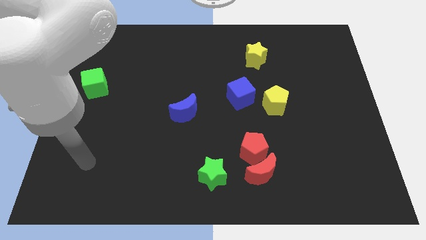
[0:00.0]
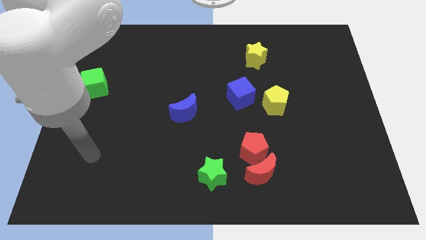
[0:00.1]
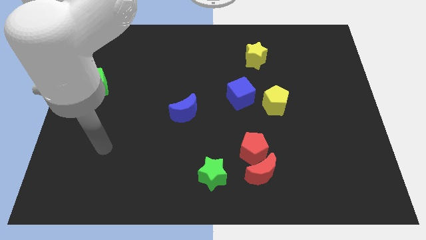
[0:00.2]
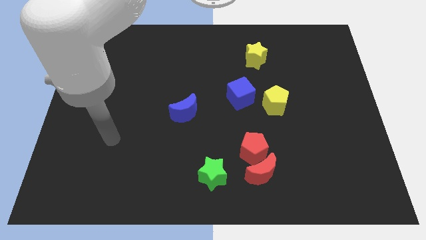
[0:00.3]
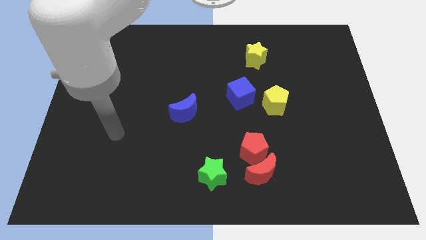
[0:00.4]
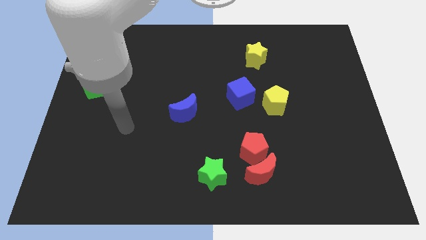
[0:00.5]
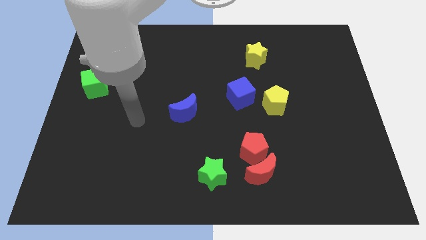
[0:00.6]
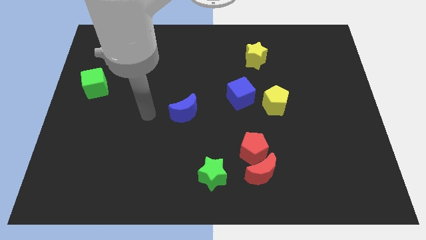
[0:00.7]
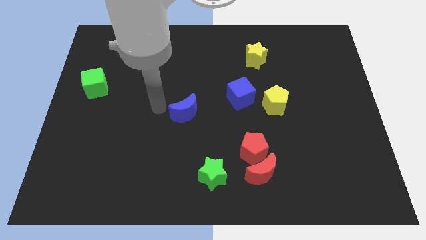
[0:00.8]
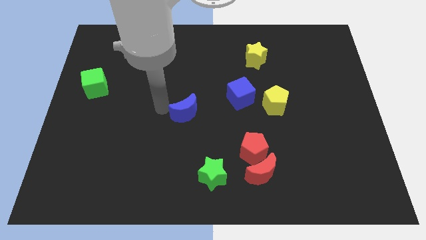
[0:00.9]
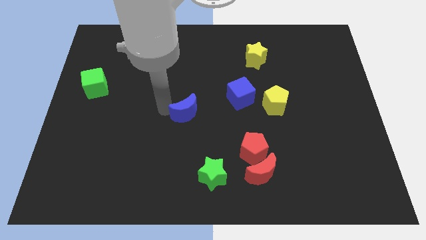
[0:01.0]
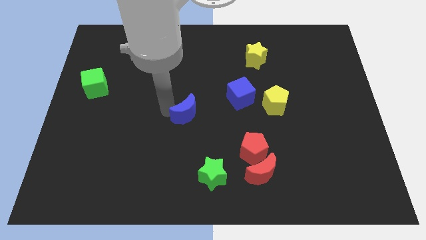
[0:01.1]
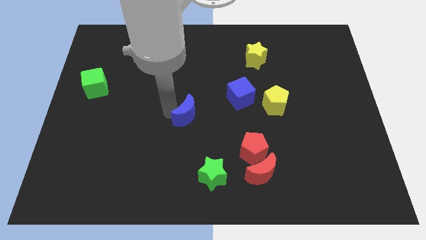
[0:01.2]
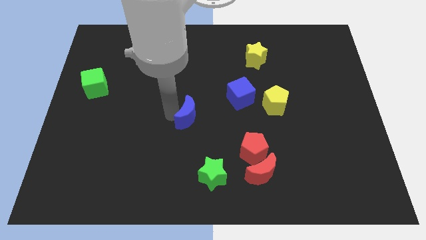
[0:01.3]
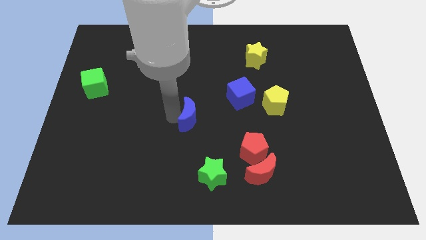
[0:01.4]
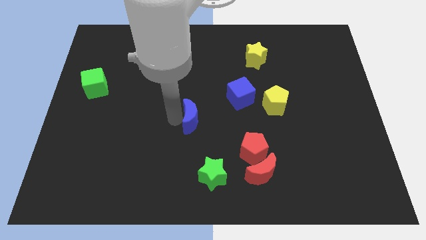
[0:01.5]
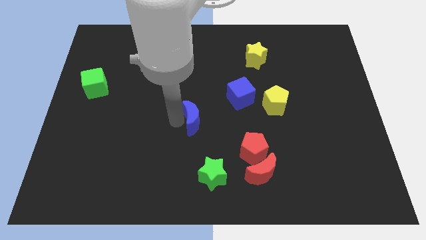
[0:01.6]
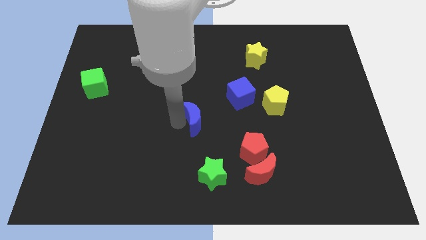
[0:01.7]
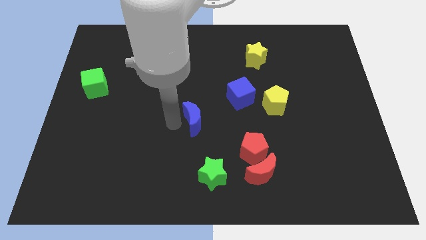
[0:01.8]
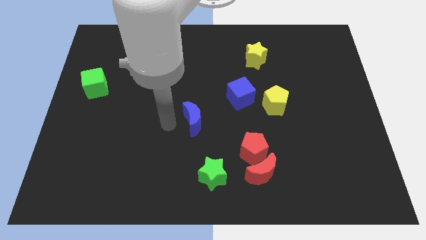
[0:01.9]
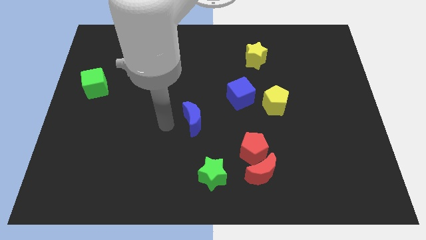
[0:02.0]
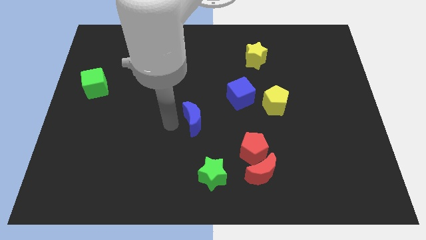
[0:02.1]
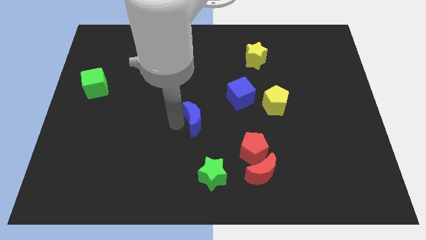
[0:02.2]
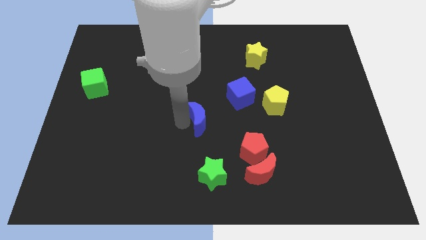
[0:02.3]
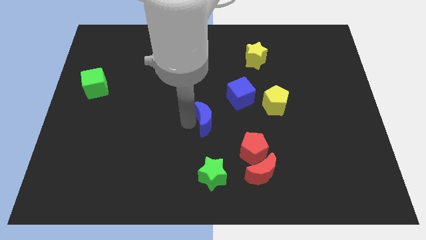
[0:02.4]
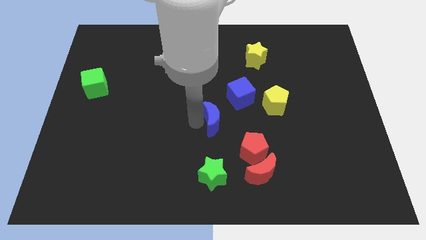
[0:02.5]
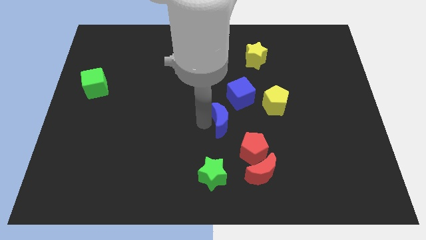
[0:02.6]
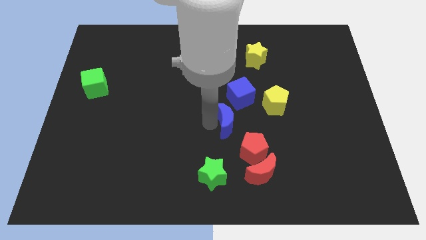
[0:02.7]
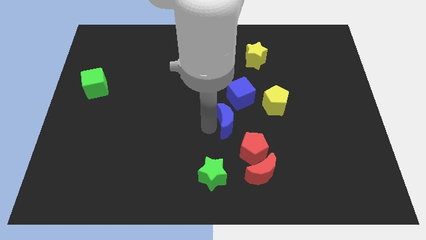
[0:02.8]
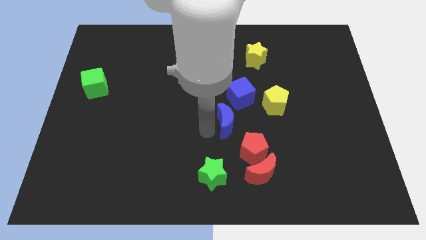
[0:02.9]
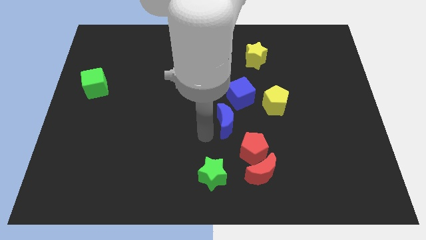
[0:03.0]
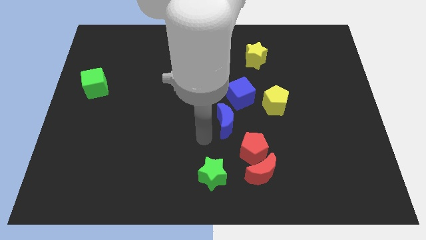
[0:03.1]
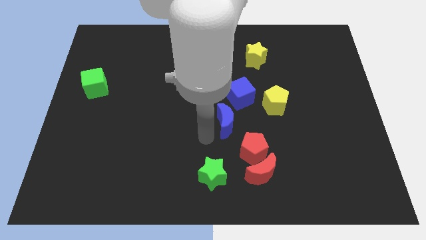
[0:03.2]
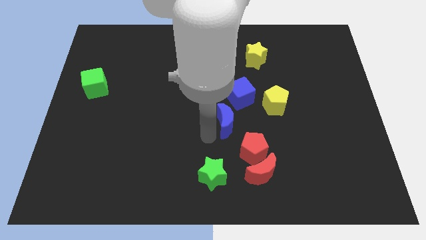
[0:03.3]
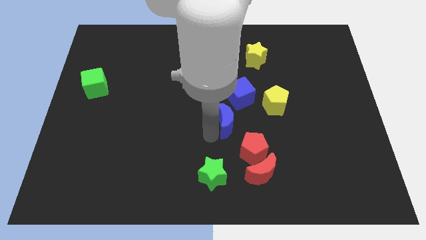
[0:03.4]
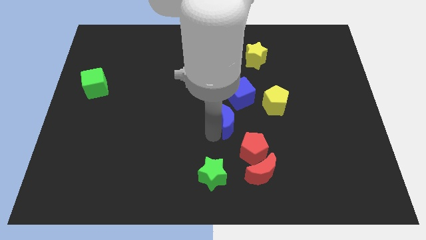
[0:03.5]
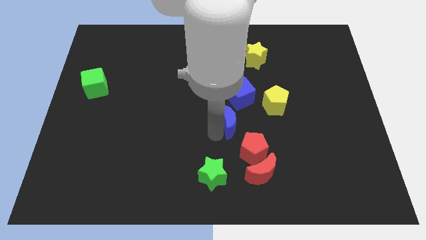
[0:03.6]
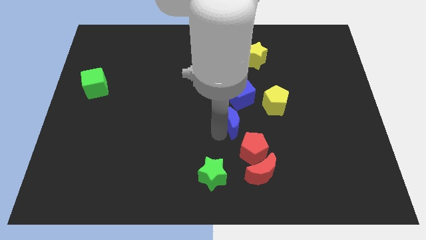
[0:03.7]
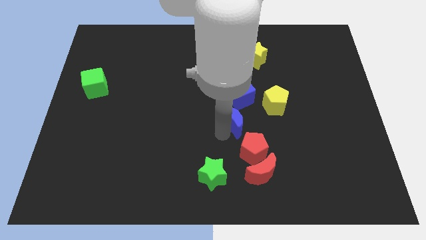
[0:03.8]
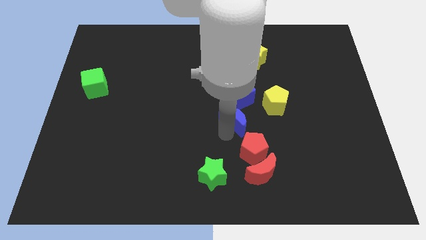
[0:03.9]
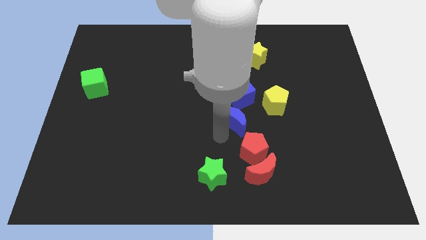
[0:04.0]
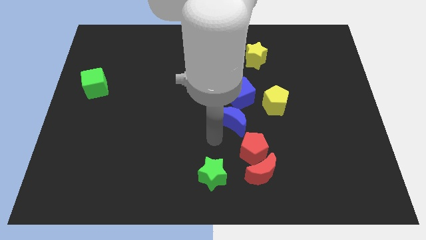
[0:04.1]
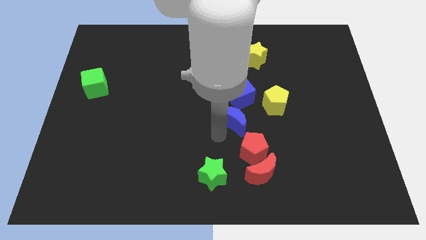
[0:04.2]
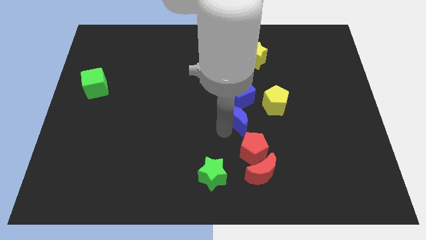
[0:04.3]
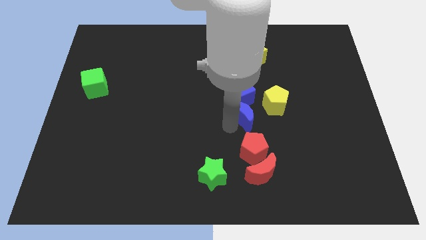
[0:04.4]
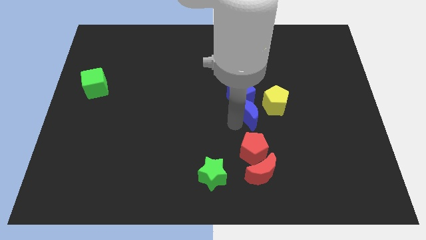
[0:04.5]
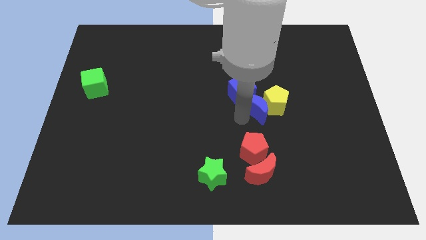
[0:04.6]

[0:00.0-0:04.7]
slide the blue moon to the yellow pentagon

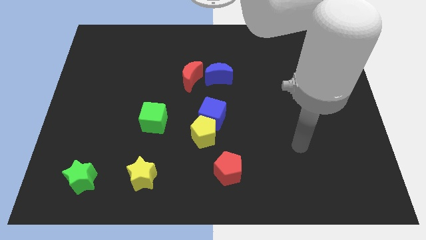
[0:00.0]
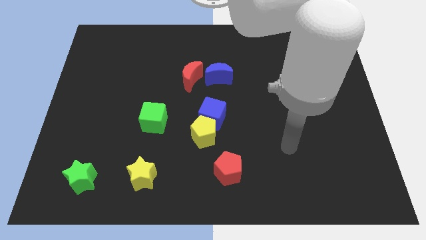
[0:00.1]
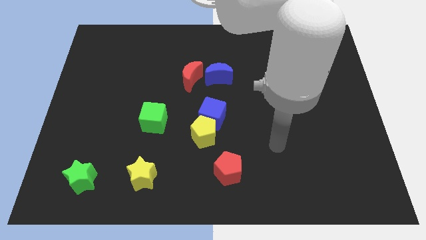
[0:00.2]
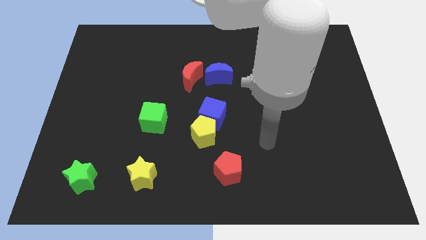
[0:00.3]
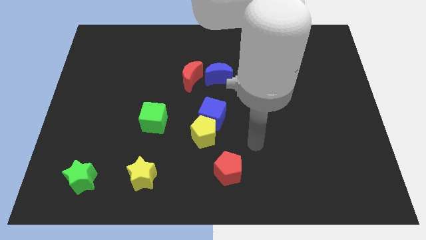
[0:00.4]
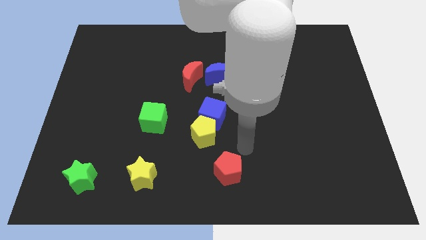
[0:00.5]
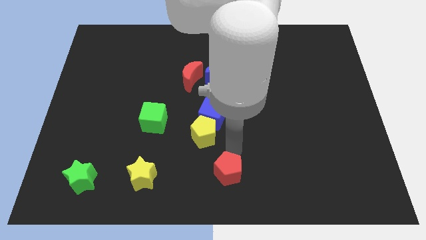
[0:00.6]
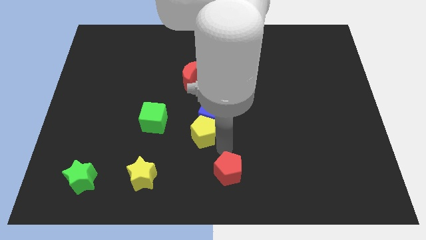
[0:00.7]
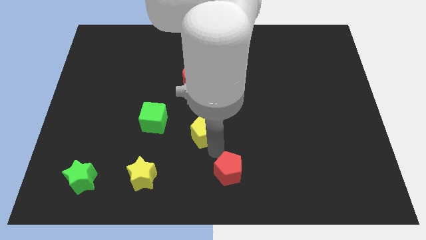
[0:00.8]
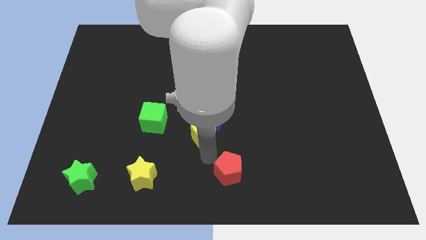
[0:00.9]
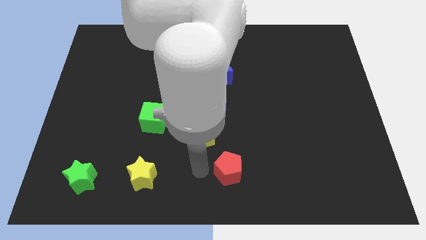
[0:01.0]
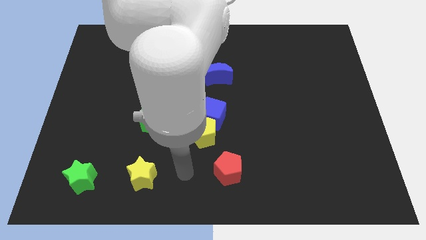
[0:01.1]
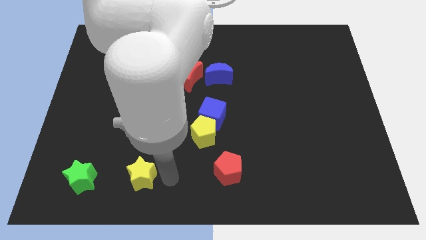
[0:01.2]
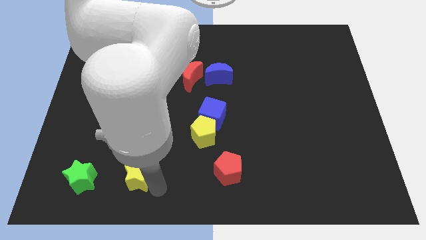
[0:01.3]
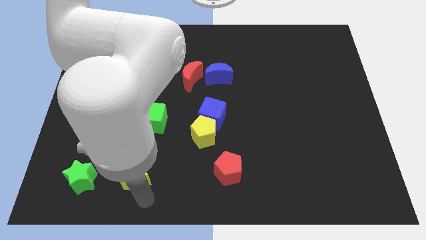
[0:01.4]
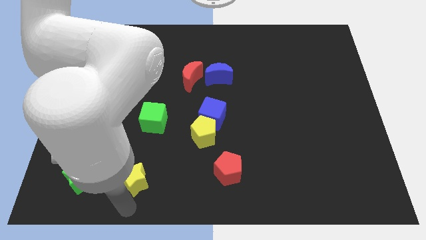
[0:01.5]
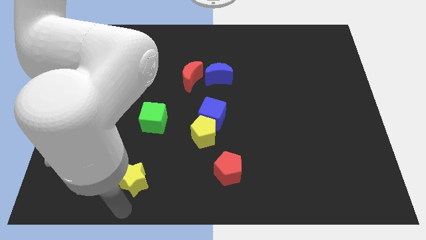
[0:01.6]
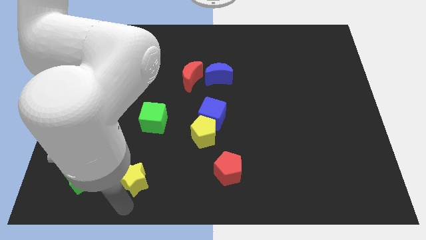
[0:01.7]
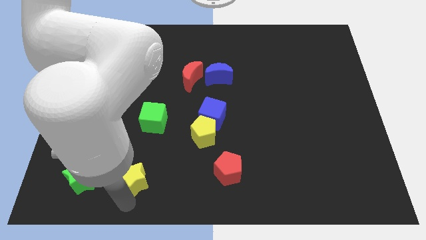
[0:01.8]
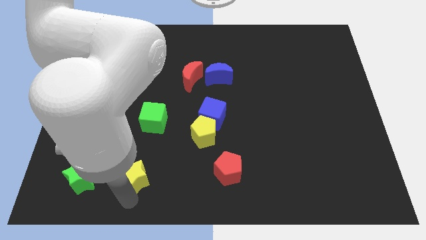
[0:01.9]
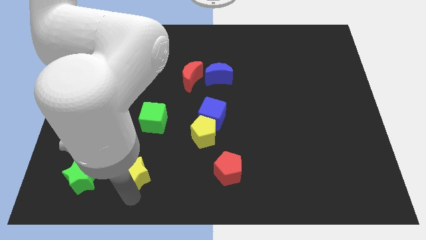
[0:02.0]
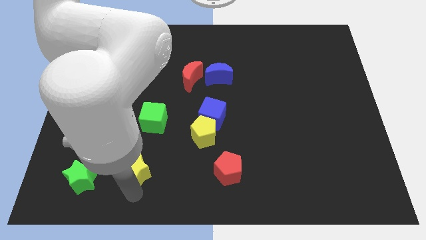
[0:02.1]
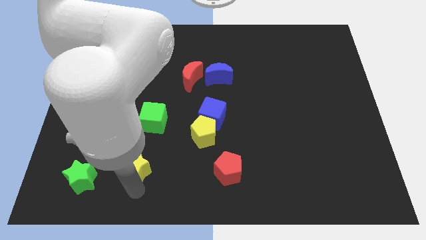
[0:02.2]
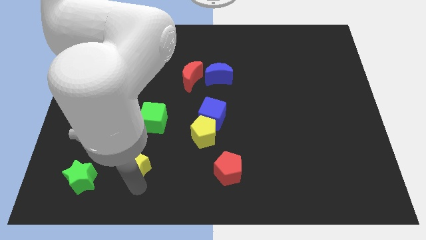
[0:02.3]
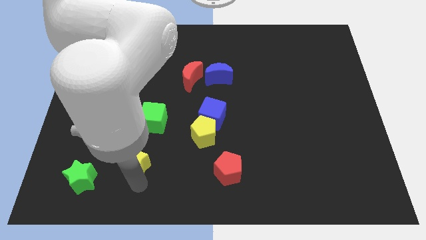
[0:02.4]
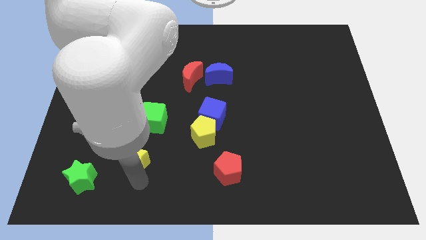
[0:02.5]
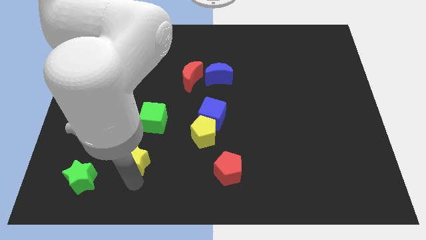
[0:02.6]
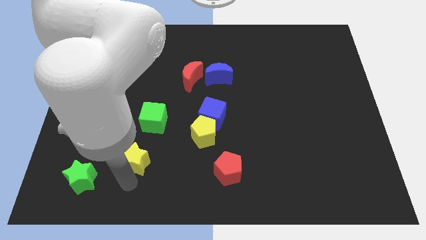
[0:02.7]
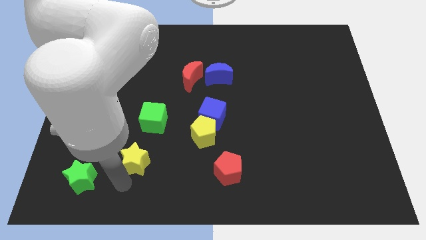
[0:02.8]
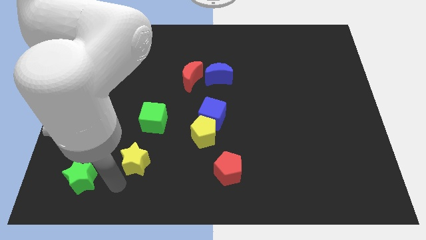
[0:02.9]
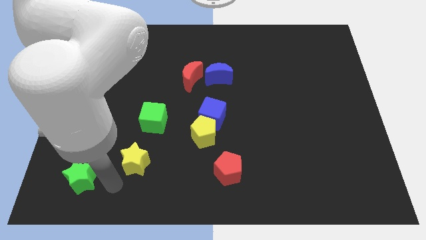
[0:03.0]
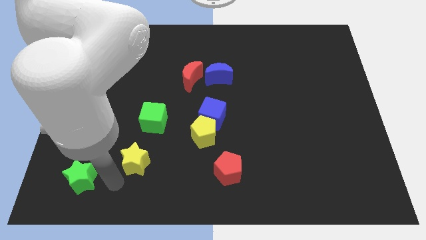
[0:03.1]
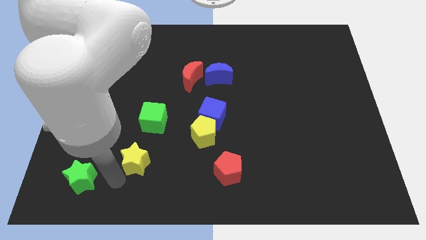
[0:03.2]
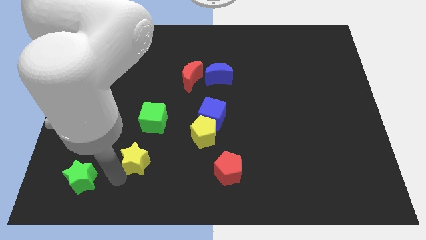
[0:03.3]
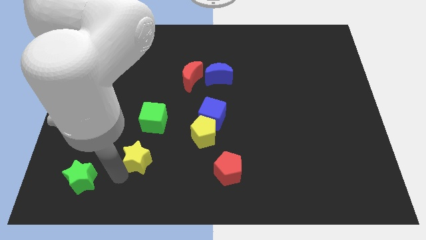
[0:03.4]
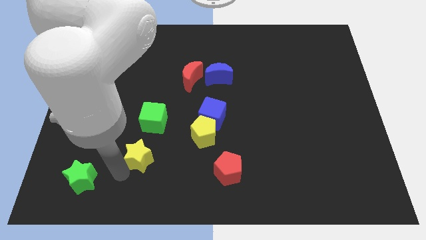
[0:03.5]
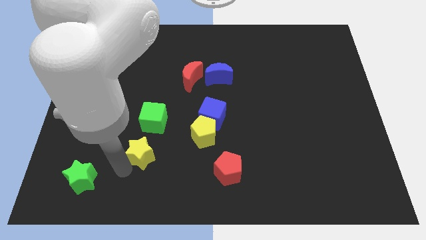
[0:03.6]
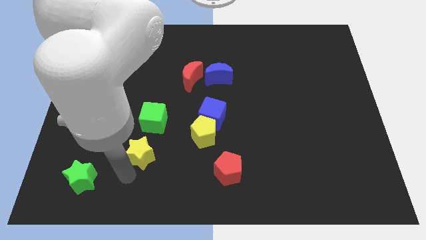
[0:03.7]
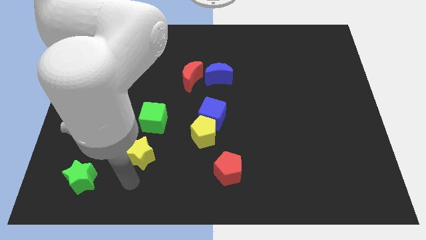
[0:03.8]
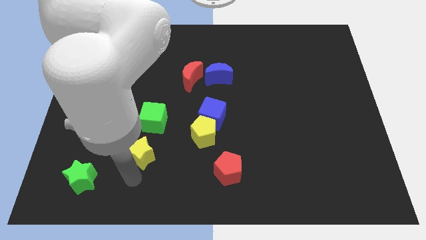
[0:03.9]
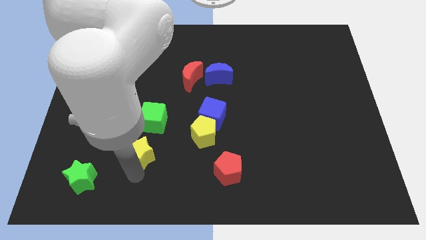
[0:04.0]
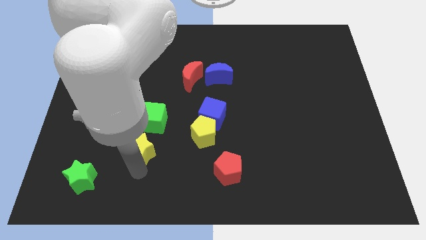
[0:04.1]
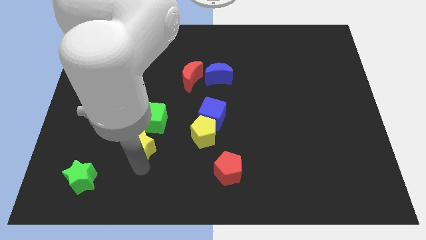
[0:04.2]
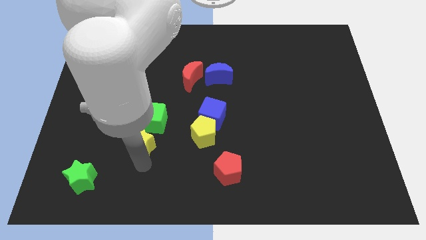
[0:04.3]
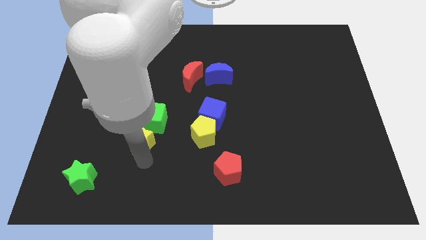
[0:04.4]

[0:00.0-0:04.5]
move the yellow star next to the green cube
